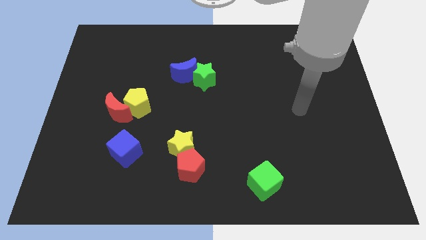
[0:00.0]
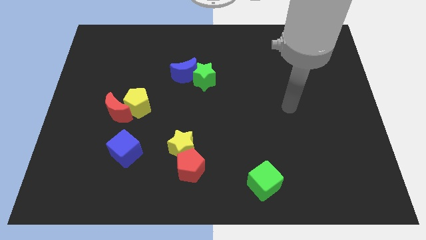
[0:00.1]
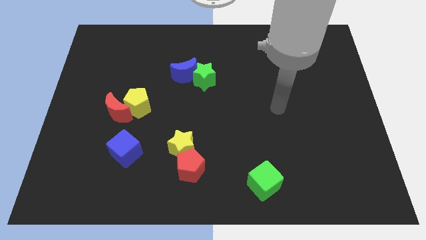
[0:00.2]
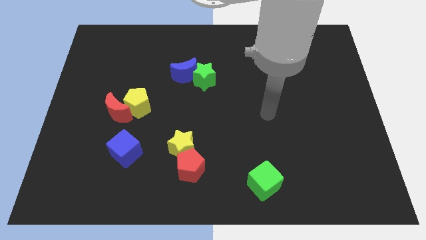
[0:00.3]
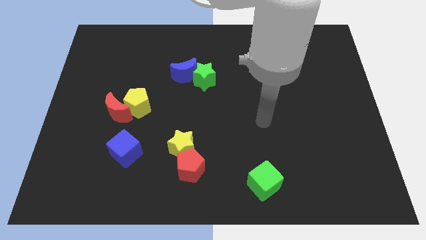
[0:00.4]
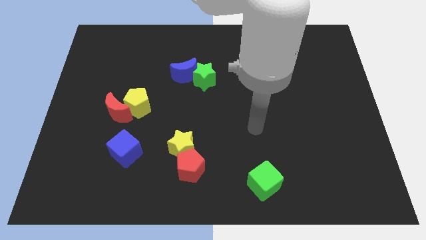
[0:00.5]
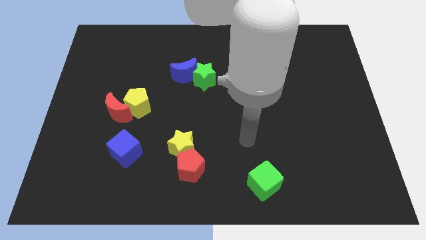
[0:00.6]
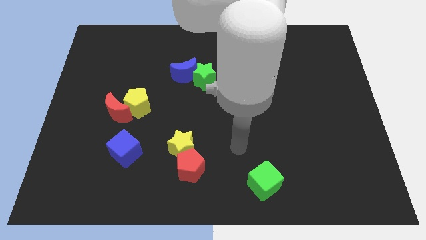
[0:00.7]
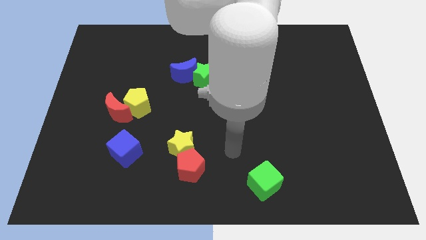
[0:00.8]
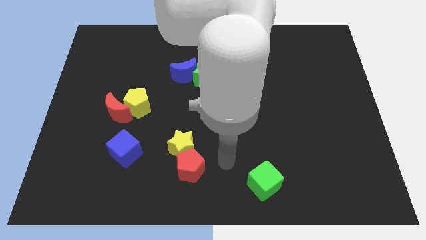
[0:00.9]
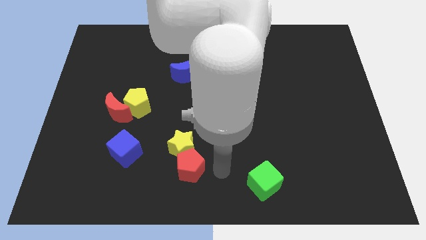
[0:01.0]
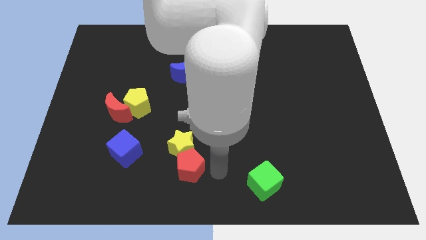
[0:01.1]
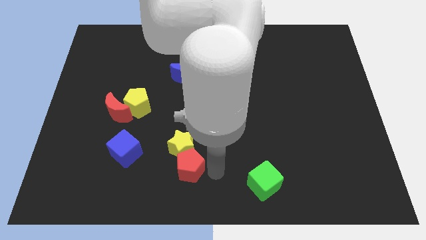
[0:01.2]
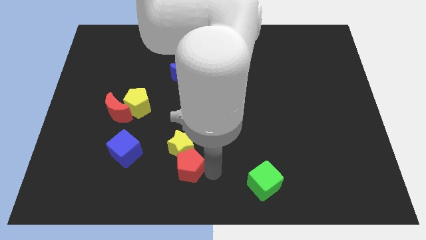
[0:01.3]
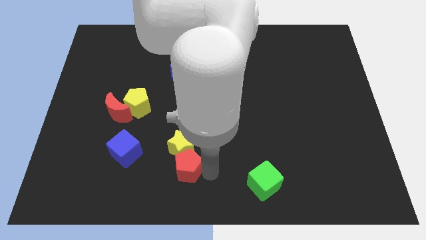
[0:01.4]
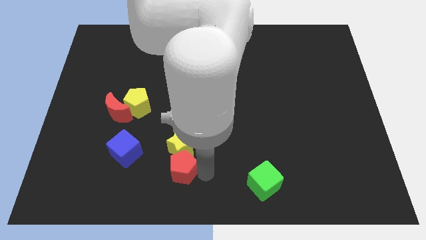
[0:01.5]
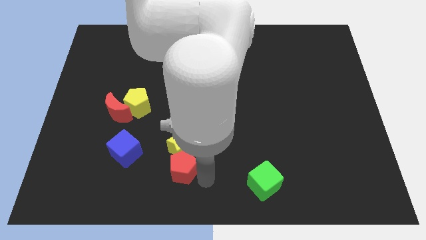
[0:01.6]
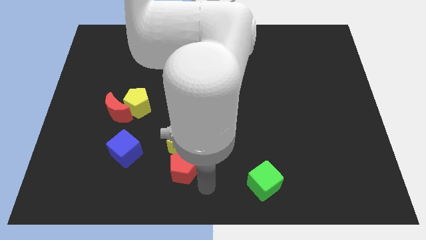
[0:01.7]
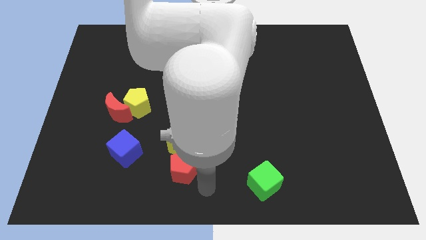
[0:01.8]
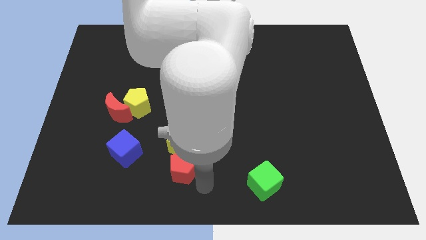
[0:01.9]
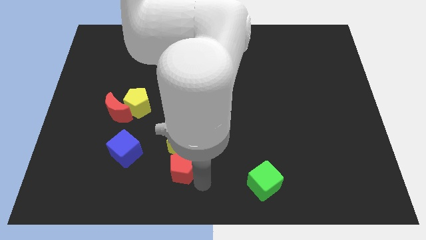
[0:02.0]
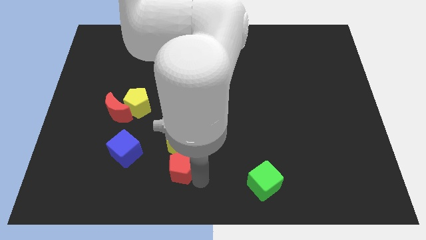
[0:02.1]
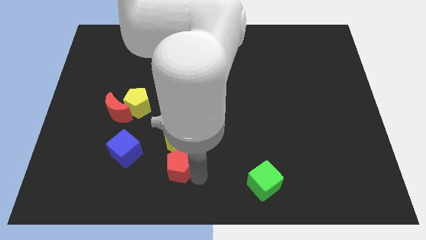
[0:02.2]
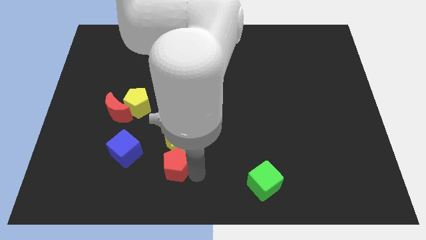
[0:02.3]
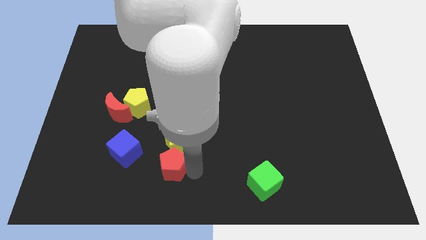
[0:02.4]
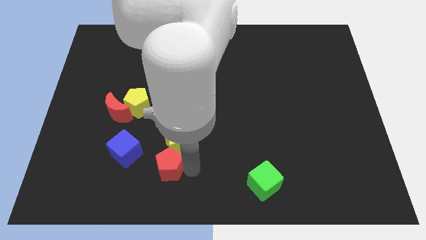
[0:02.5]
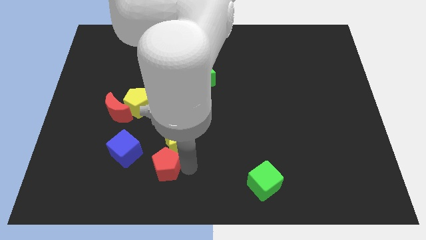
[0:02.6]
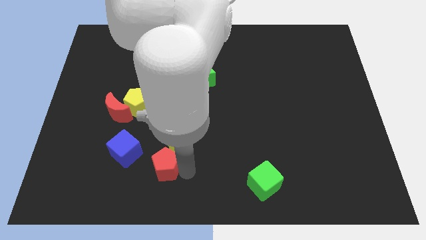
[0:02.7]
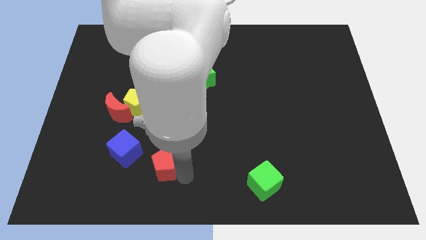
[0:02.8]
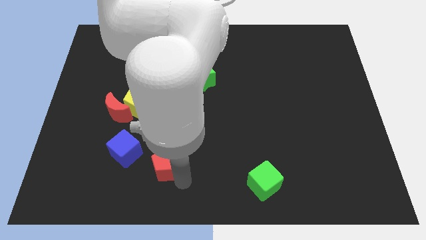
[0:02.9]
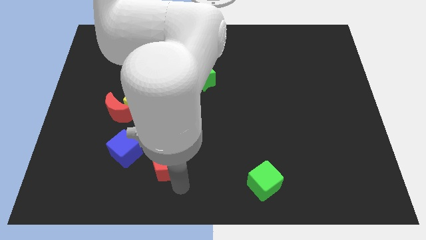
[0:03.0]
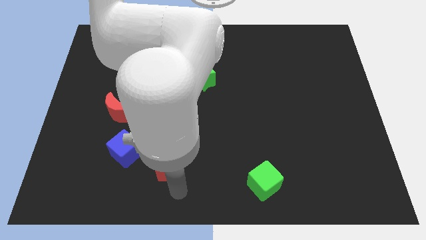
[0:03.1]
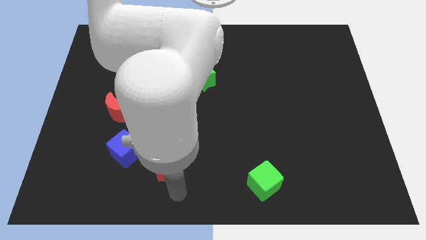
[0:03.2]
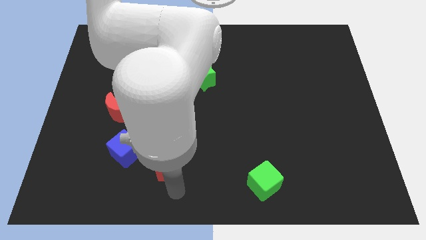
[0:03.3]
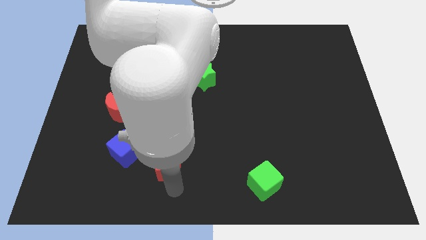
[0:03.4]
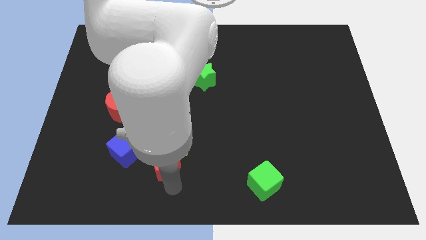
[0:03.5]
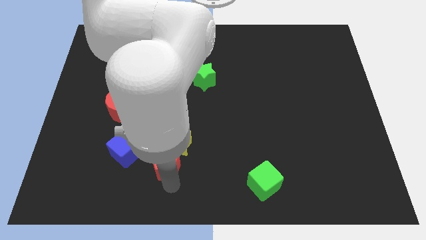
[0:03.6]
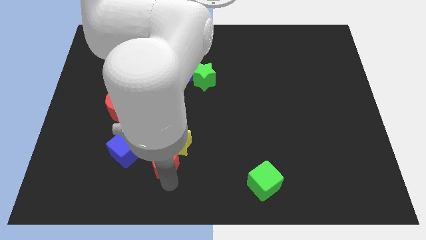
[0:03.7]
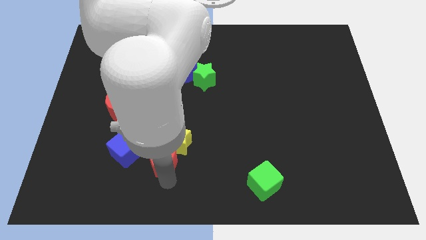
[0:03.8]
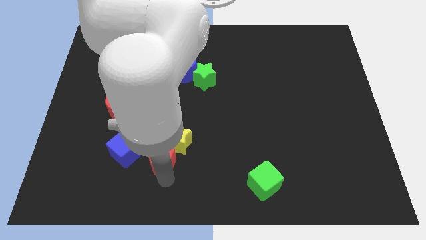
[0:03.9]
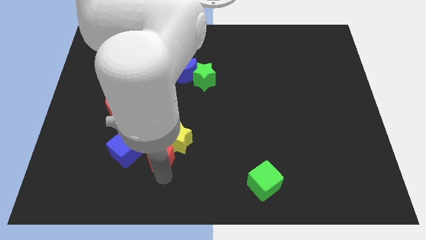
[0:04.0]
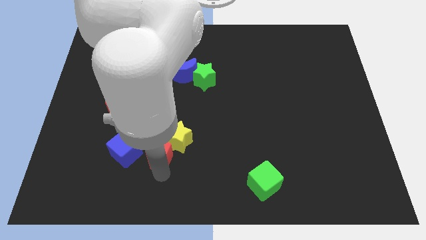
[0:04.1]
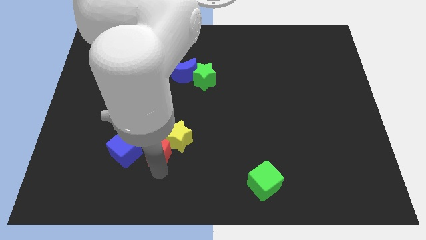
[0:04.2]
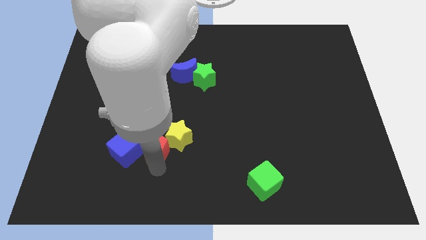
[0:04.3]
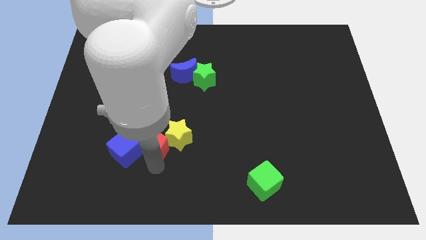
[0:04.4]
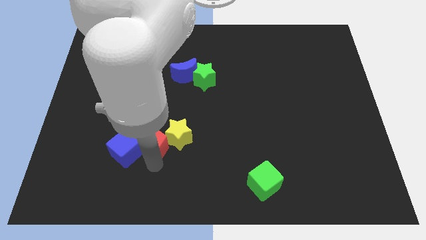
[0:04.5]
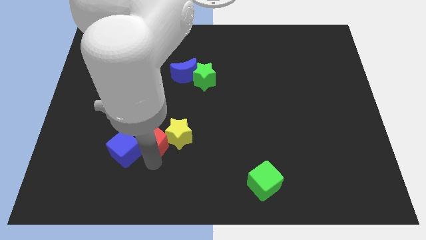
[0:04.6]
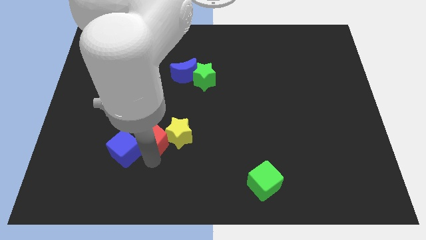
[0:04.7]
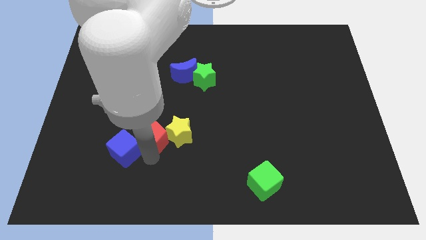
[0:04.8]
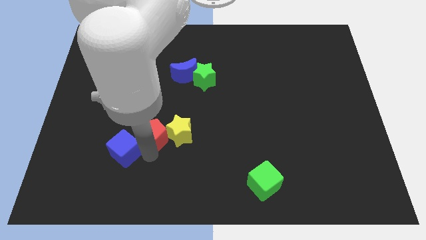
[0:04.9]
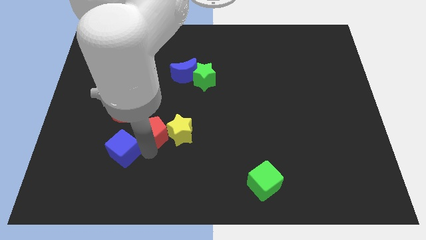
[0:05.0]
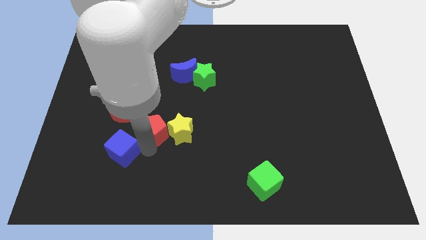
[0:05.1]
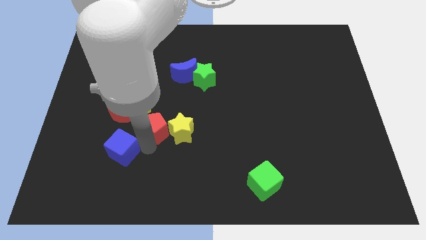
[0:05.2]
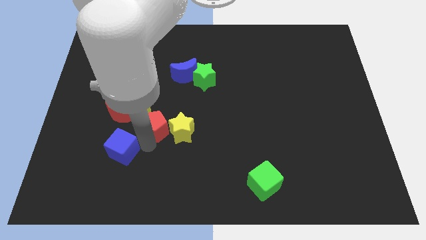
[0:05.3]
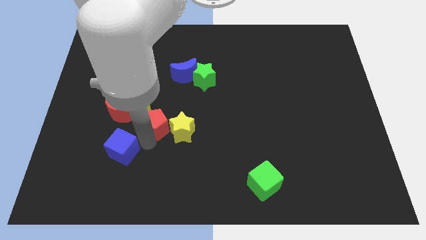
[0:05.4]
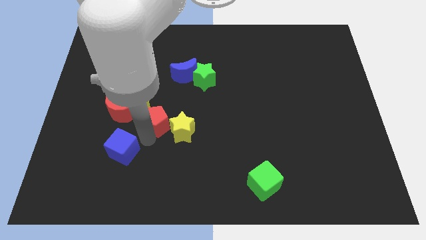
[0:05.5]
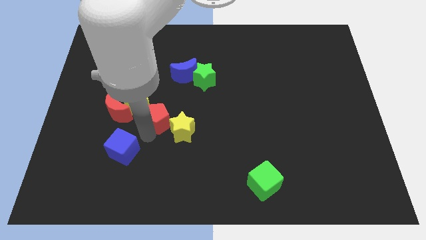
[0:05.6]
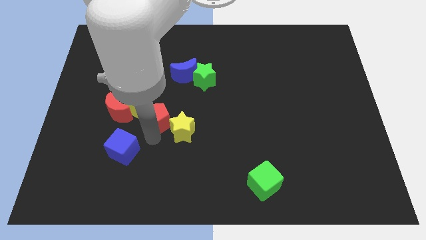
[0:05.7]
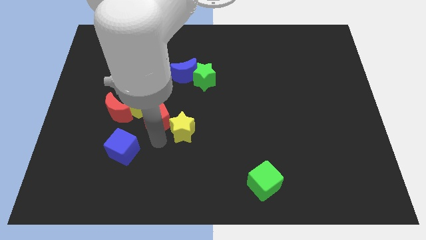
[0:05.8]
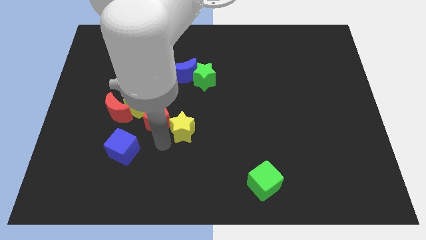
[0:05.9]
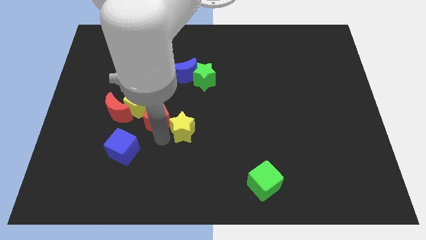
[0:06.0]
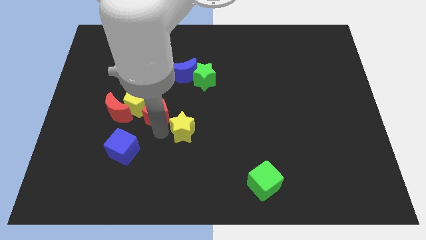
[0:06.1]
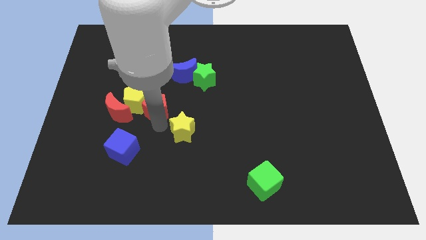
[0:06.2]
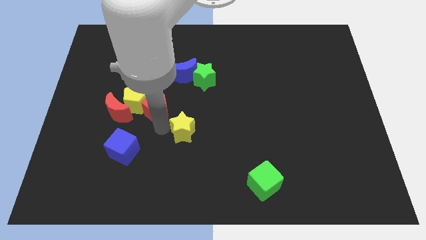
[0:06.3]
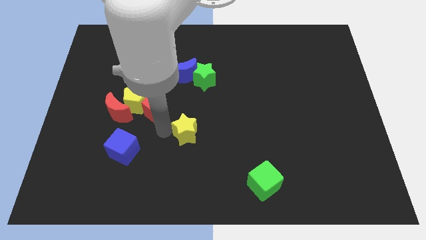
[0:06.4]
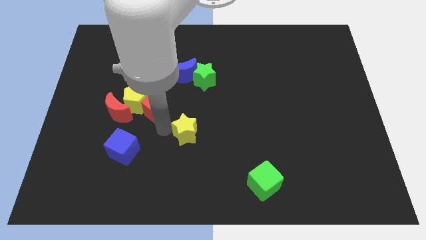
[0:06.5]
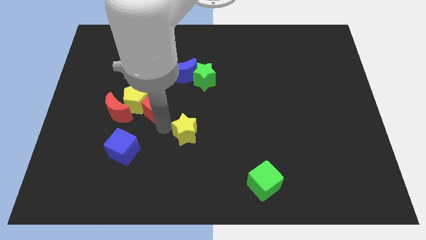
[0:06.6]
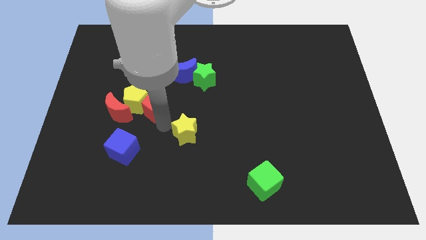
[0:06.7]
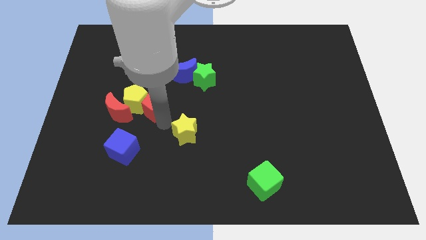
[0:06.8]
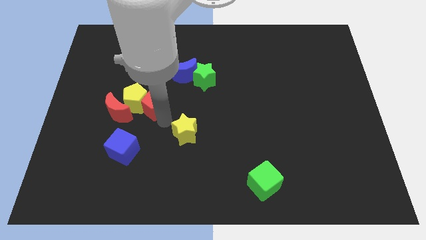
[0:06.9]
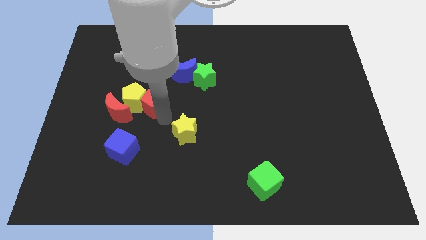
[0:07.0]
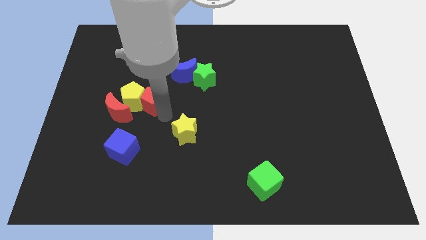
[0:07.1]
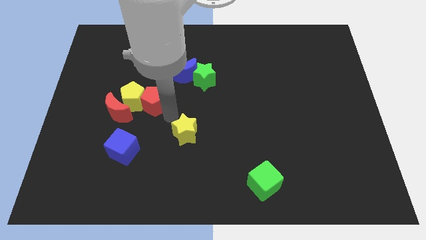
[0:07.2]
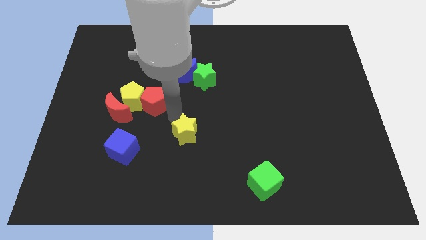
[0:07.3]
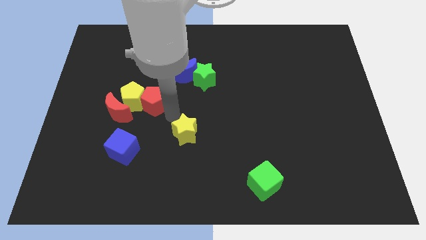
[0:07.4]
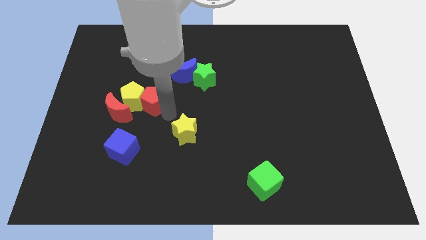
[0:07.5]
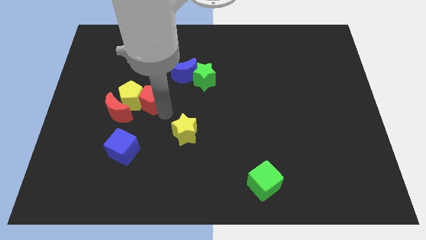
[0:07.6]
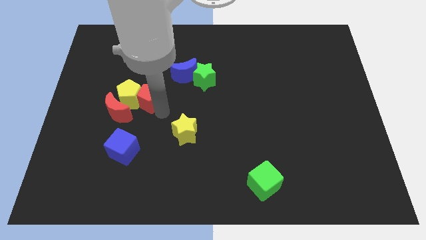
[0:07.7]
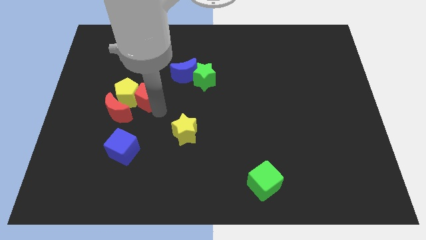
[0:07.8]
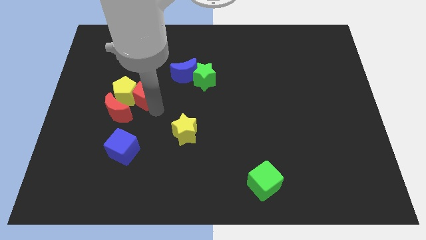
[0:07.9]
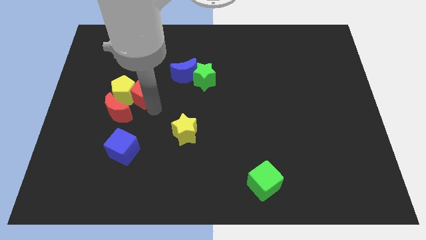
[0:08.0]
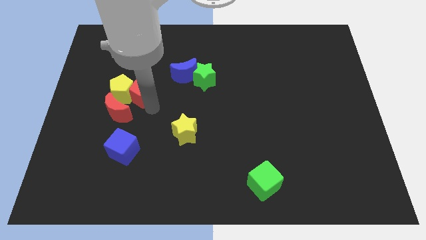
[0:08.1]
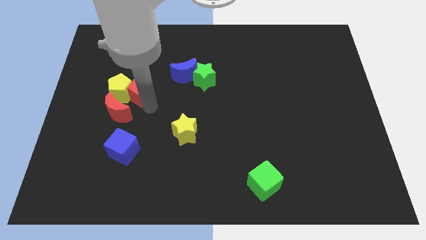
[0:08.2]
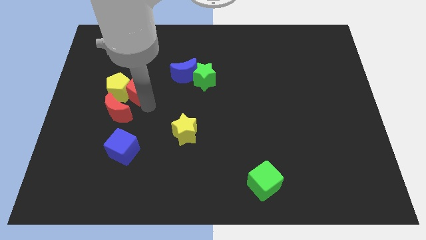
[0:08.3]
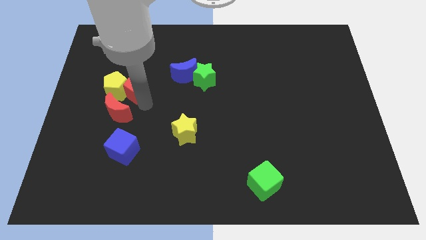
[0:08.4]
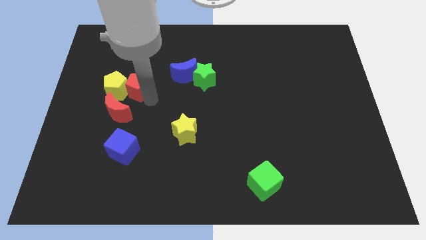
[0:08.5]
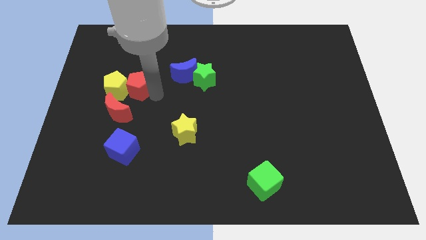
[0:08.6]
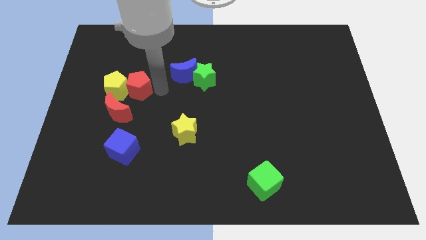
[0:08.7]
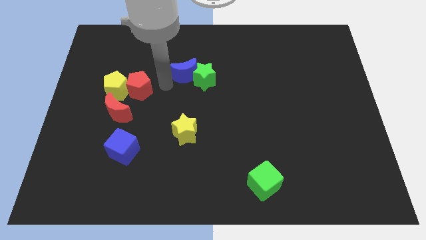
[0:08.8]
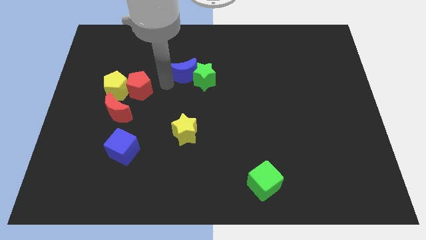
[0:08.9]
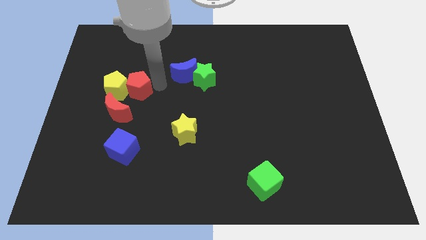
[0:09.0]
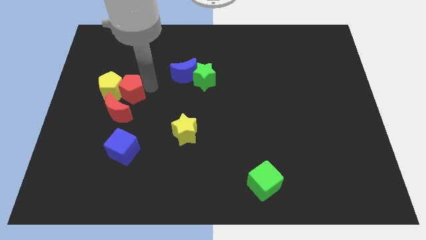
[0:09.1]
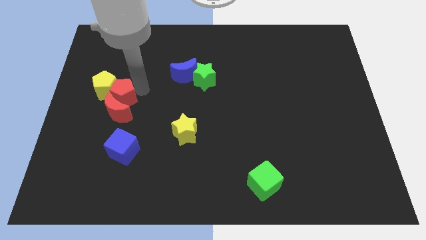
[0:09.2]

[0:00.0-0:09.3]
push the red pentagon to the top left side of the red moon
